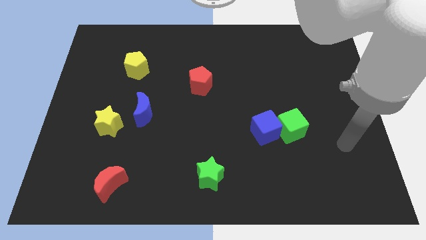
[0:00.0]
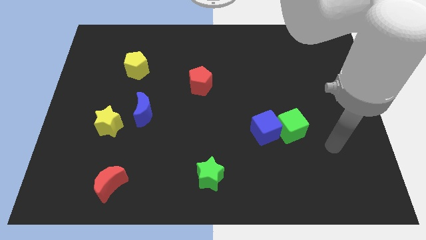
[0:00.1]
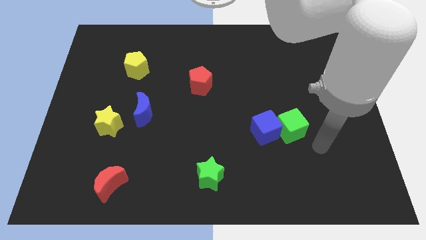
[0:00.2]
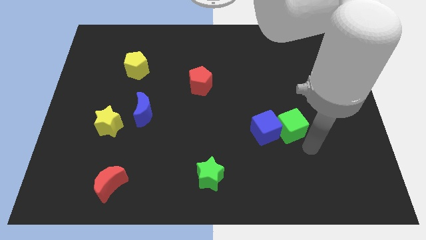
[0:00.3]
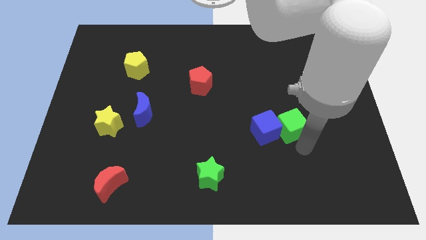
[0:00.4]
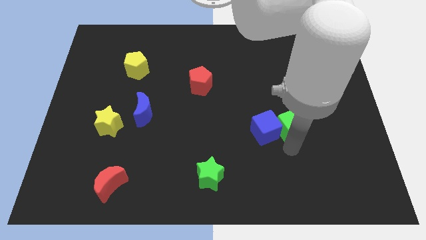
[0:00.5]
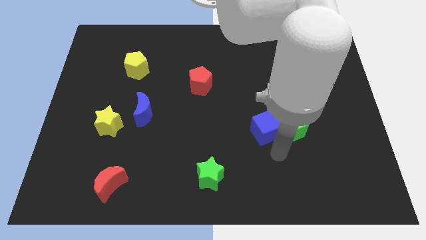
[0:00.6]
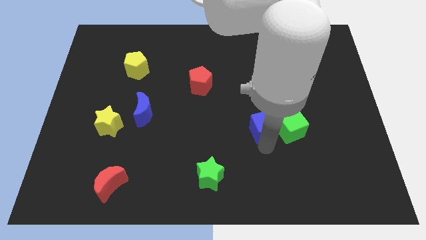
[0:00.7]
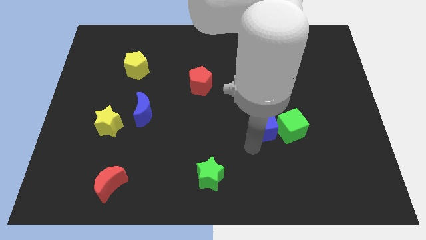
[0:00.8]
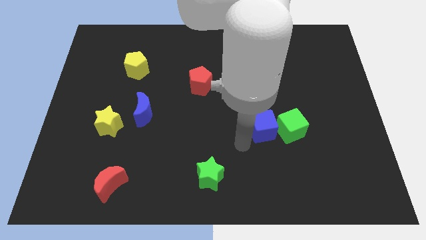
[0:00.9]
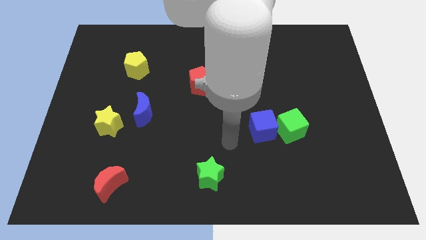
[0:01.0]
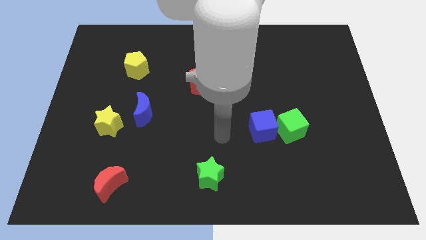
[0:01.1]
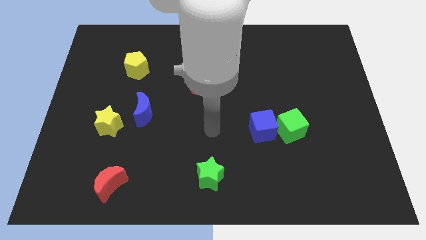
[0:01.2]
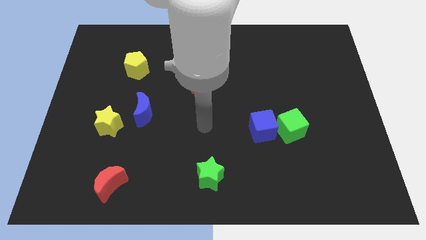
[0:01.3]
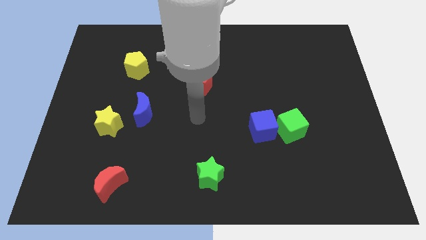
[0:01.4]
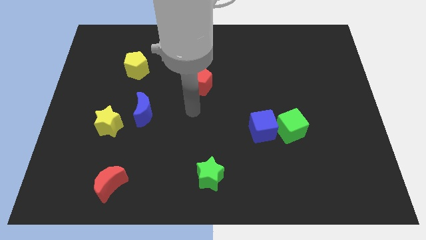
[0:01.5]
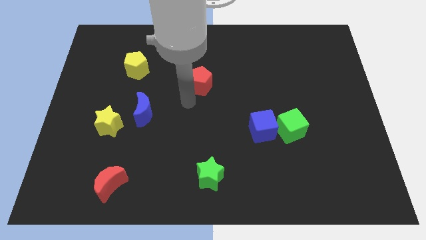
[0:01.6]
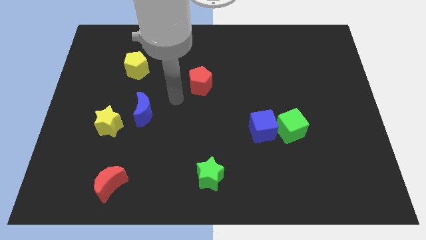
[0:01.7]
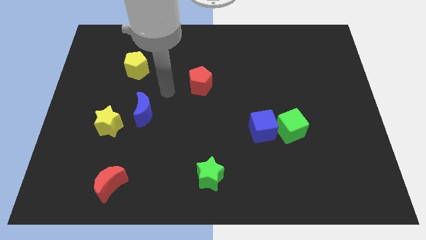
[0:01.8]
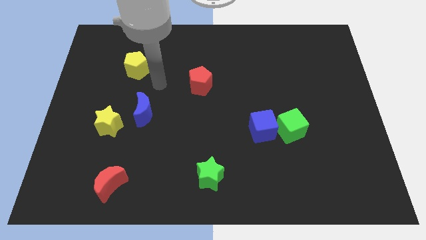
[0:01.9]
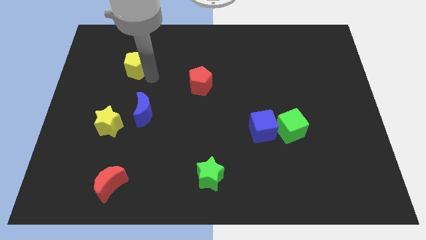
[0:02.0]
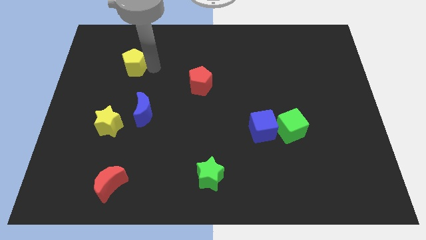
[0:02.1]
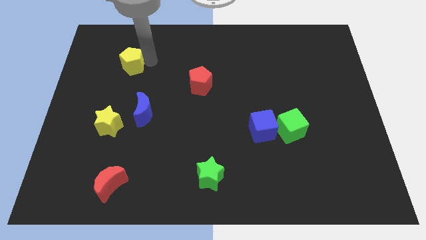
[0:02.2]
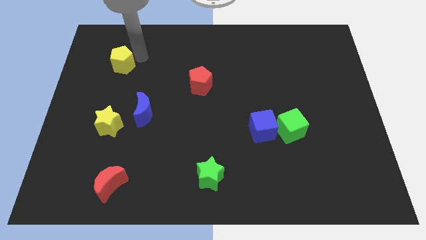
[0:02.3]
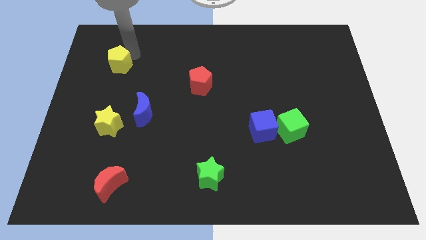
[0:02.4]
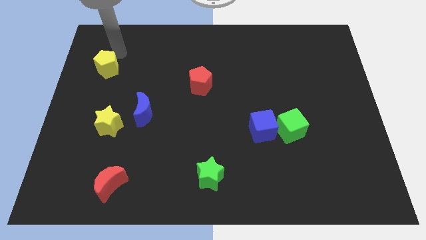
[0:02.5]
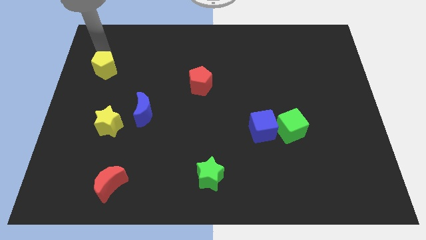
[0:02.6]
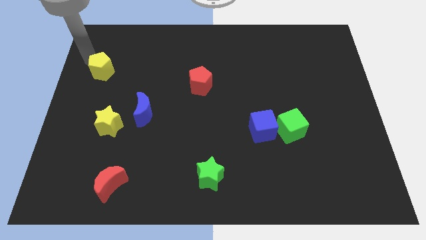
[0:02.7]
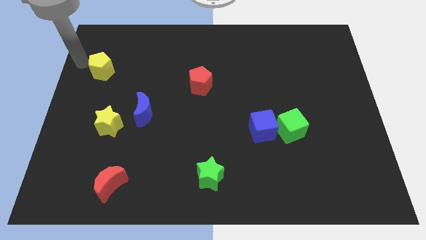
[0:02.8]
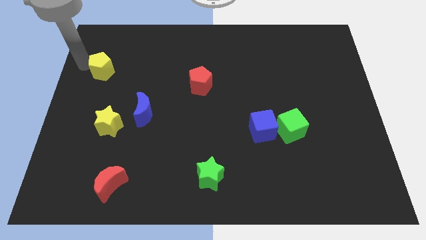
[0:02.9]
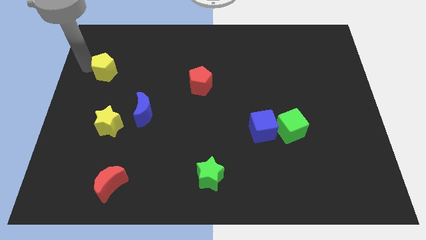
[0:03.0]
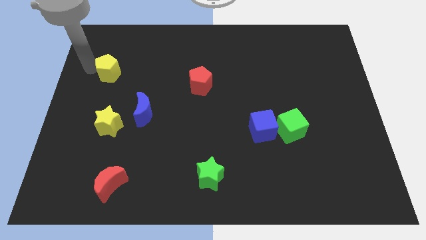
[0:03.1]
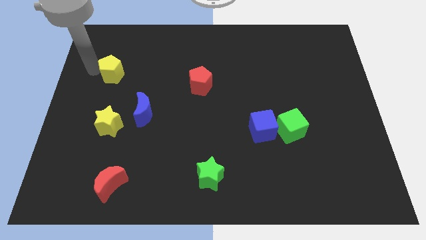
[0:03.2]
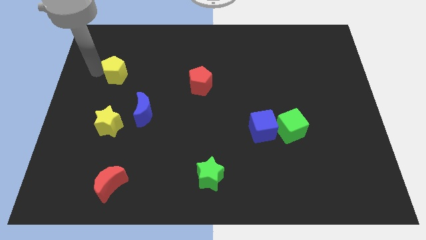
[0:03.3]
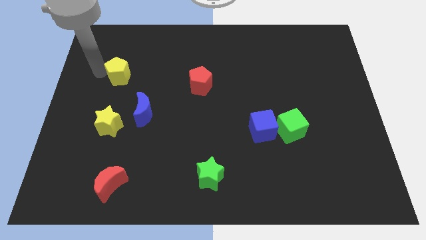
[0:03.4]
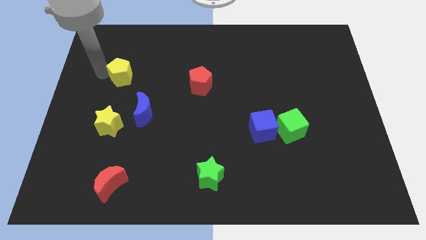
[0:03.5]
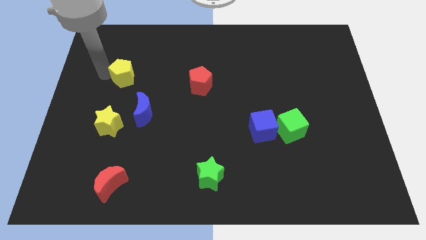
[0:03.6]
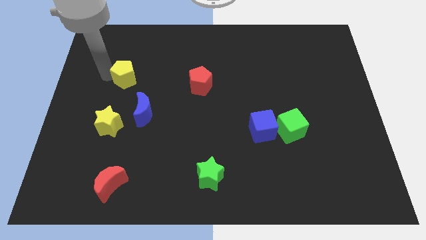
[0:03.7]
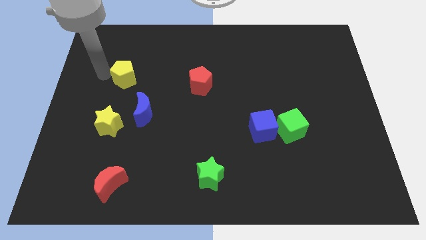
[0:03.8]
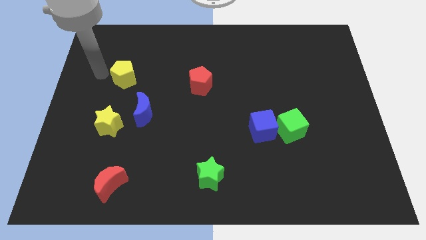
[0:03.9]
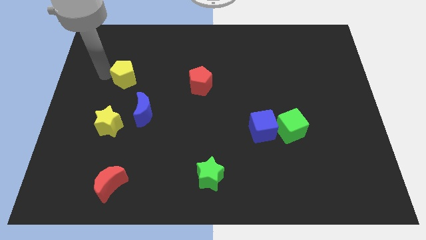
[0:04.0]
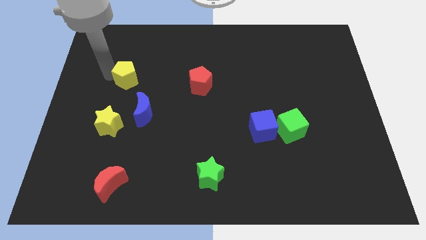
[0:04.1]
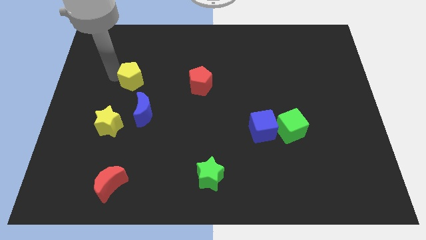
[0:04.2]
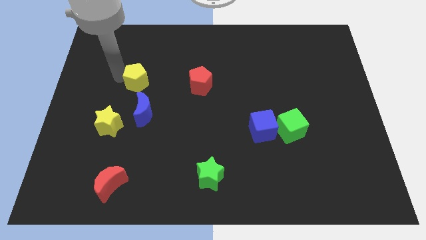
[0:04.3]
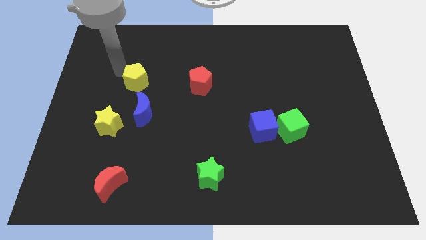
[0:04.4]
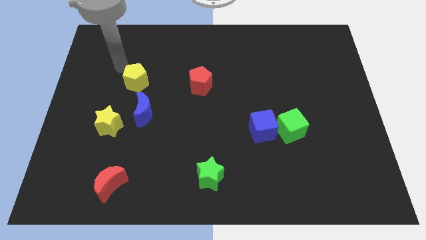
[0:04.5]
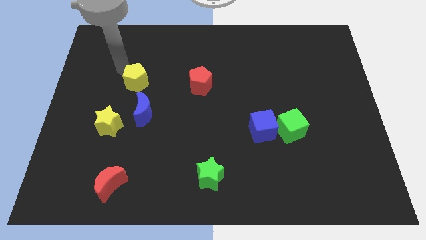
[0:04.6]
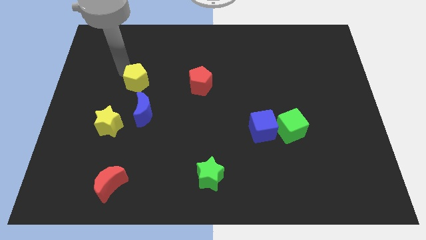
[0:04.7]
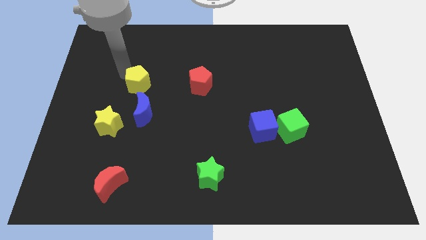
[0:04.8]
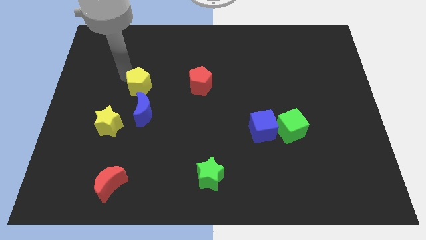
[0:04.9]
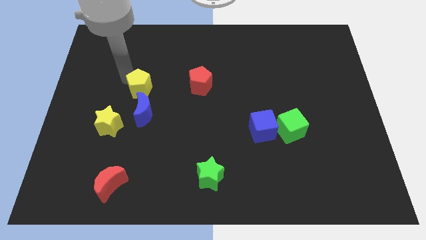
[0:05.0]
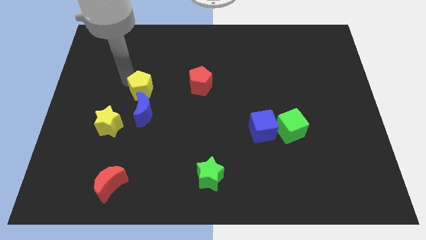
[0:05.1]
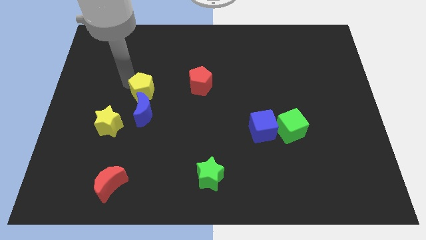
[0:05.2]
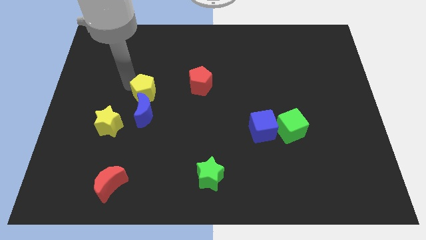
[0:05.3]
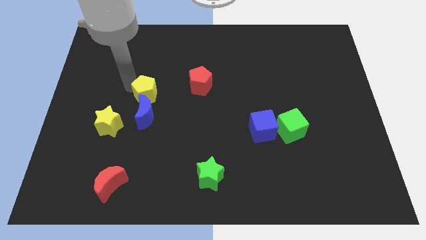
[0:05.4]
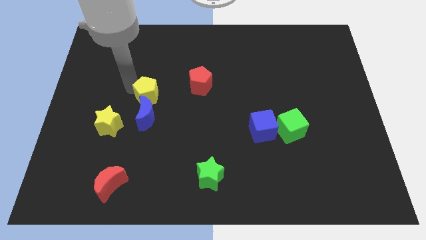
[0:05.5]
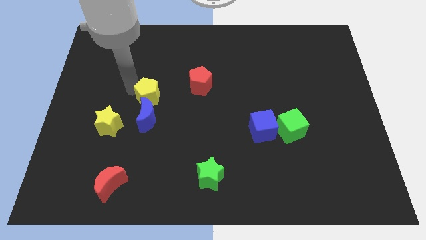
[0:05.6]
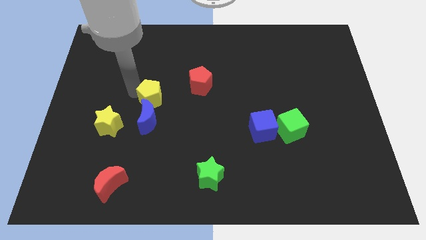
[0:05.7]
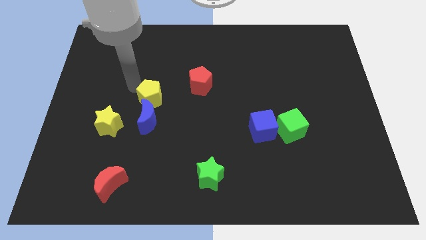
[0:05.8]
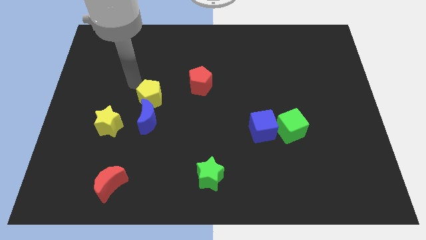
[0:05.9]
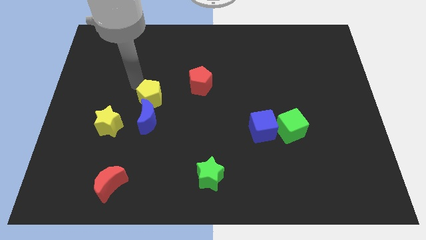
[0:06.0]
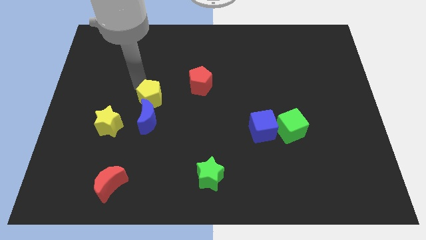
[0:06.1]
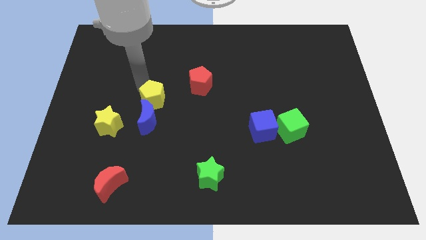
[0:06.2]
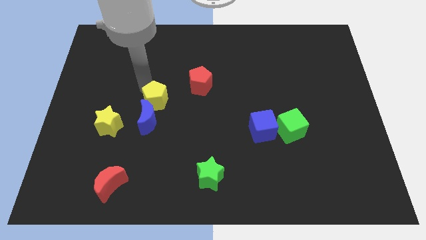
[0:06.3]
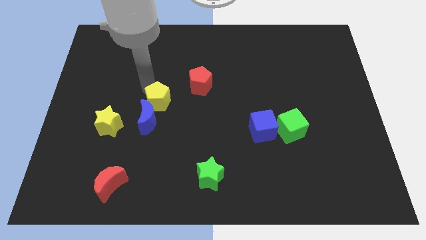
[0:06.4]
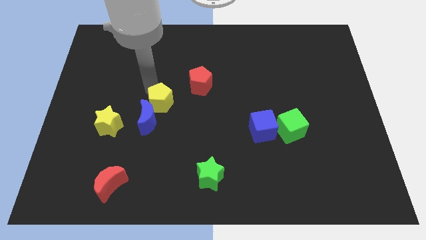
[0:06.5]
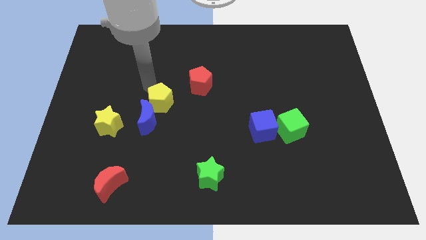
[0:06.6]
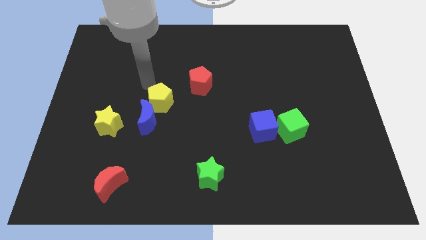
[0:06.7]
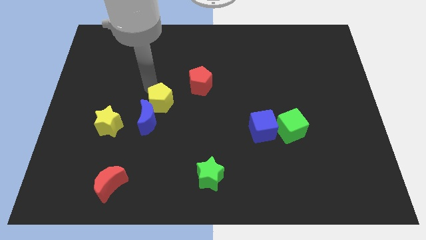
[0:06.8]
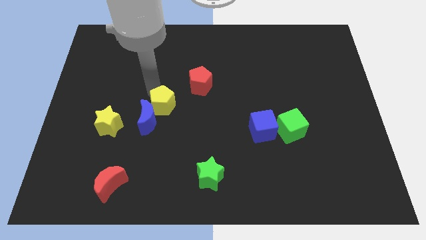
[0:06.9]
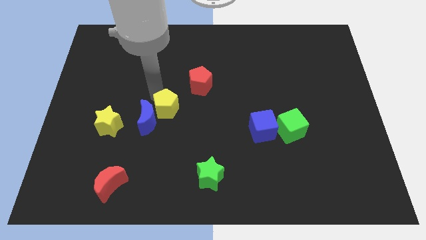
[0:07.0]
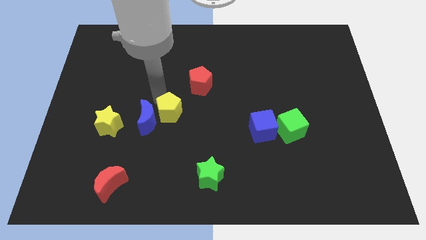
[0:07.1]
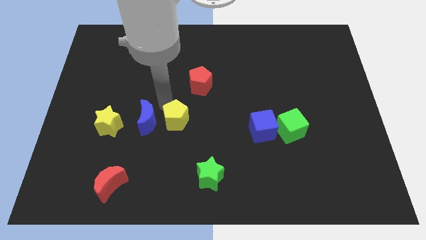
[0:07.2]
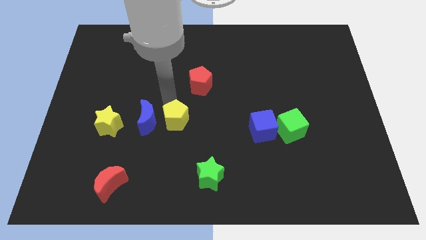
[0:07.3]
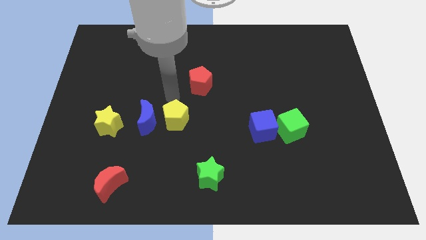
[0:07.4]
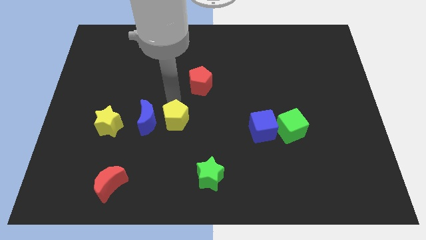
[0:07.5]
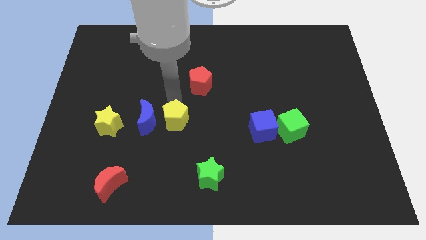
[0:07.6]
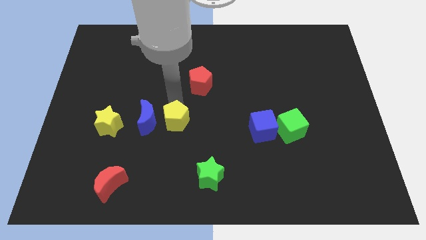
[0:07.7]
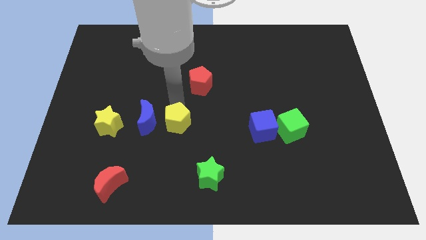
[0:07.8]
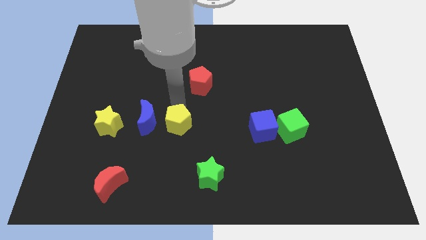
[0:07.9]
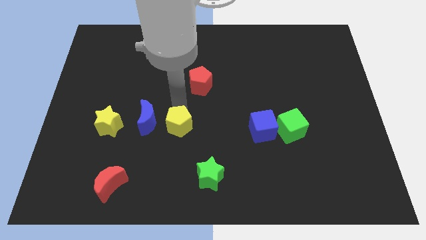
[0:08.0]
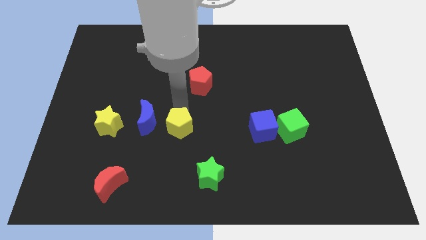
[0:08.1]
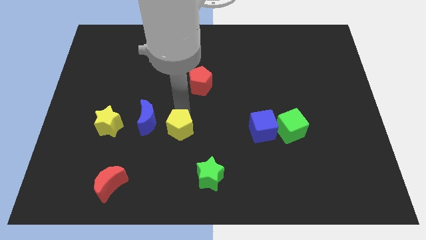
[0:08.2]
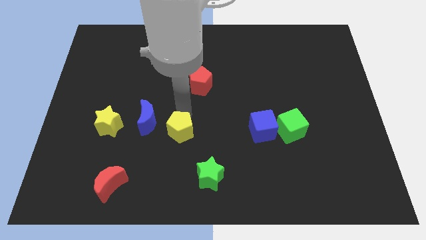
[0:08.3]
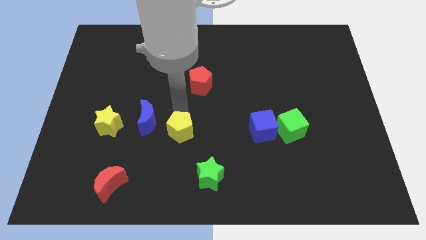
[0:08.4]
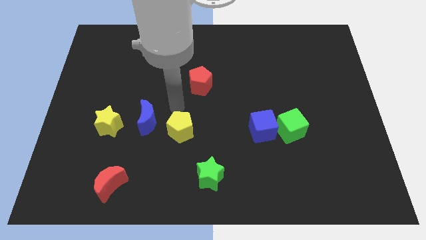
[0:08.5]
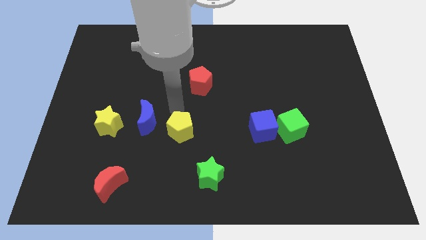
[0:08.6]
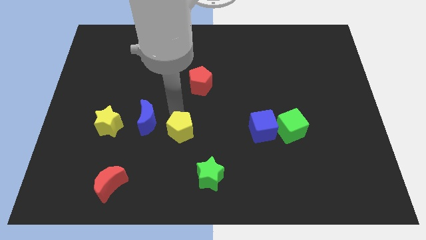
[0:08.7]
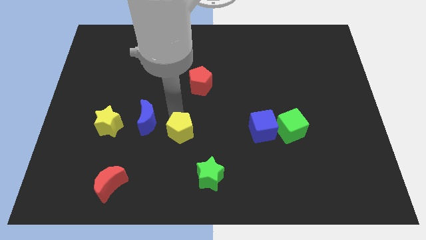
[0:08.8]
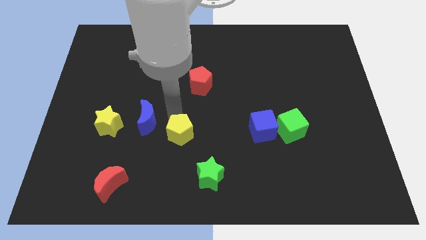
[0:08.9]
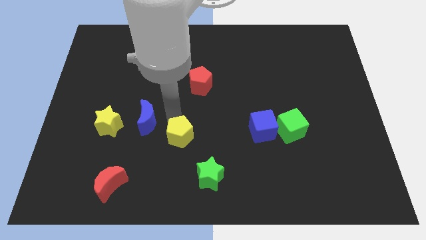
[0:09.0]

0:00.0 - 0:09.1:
put the yellow pentagon to the top left of the green star
